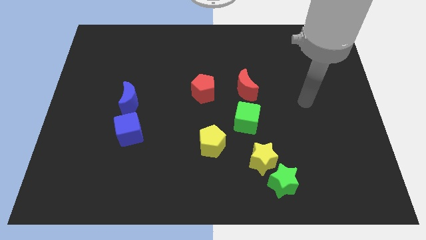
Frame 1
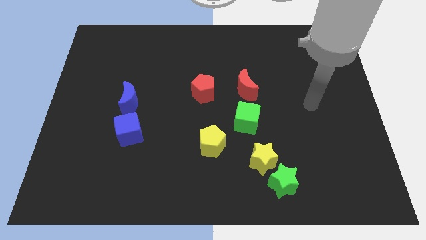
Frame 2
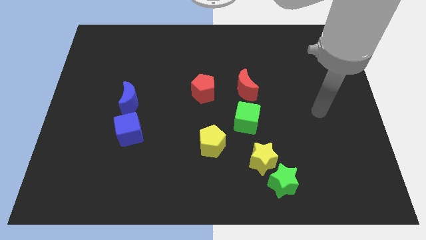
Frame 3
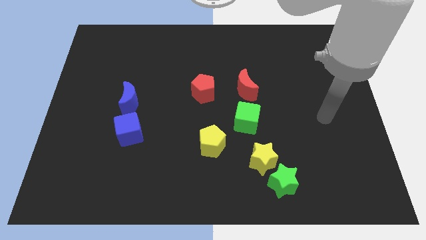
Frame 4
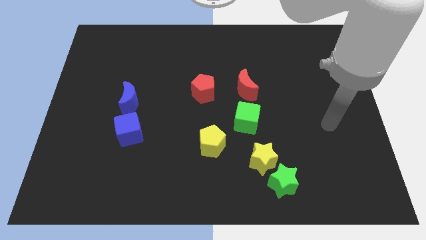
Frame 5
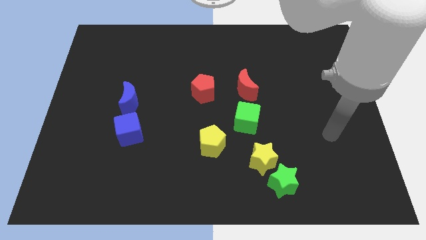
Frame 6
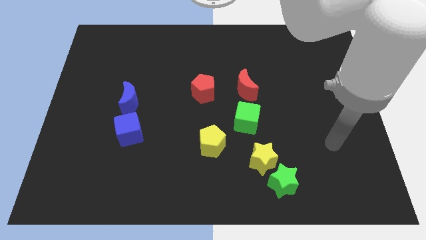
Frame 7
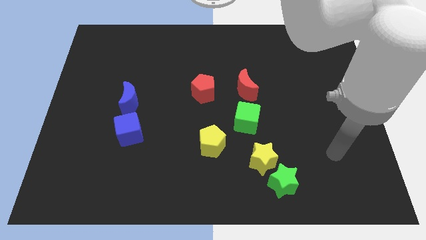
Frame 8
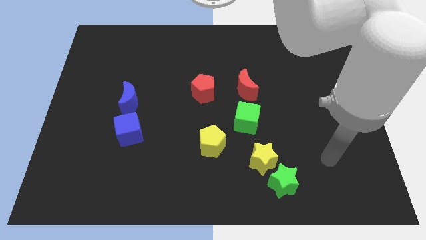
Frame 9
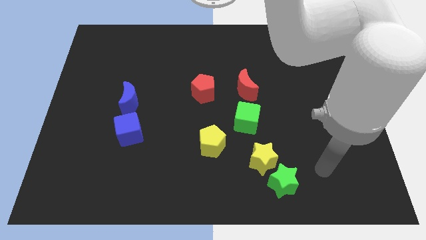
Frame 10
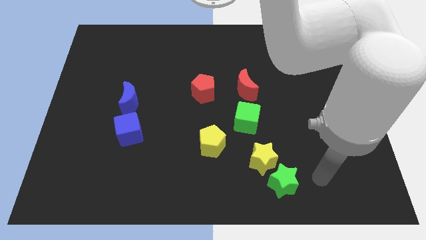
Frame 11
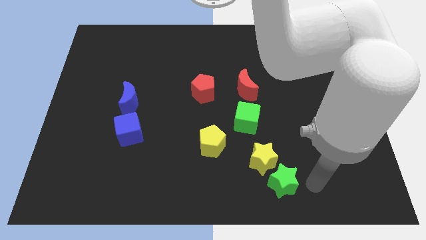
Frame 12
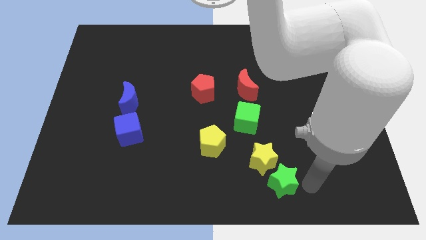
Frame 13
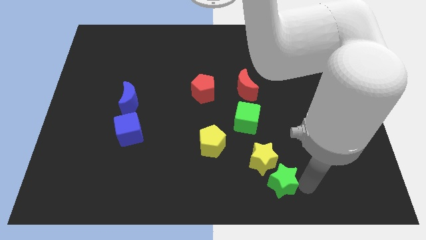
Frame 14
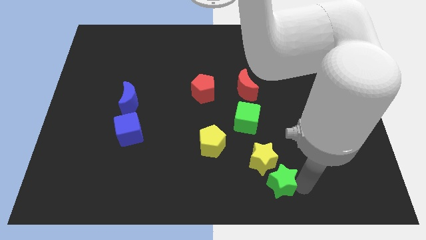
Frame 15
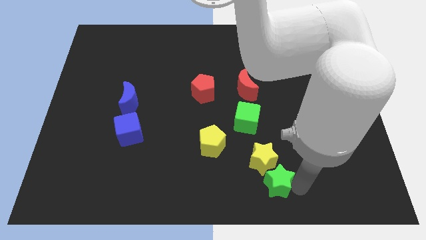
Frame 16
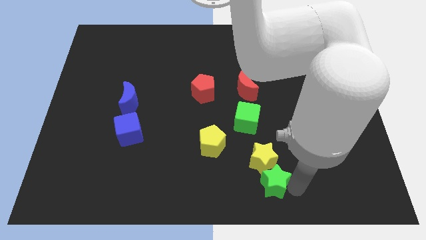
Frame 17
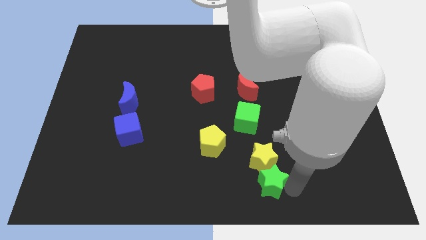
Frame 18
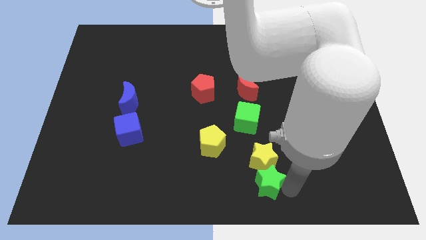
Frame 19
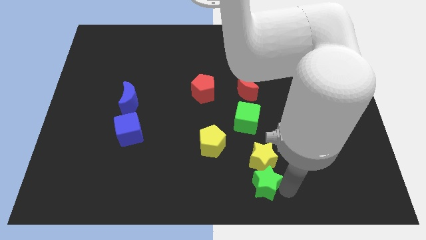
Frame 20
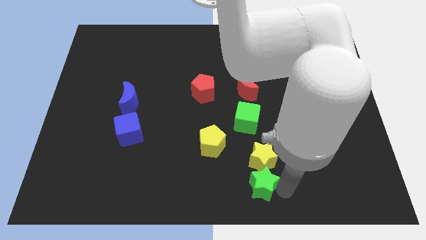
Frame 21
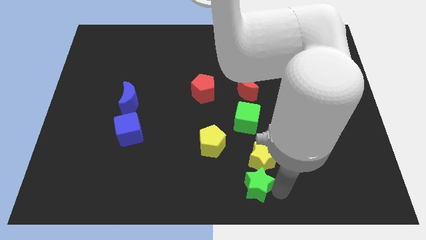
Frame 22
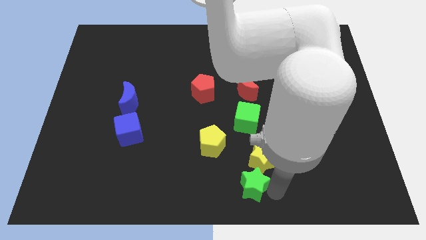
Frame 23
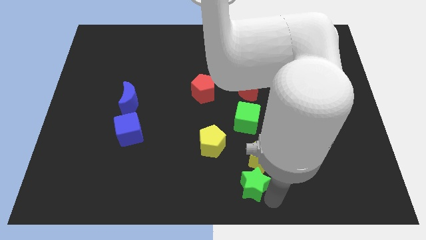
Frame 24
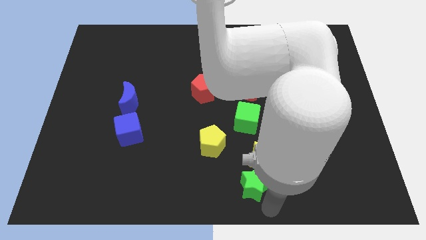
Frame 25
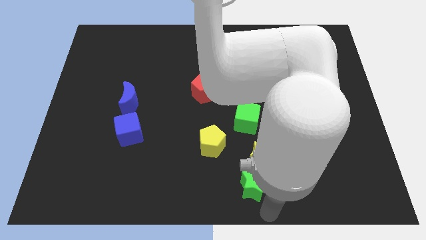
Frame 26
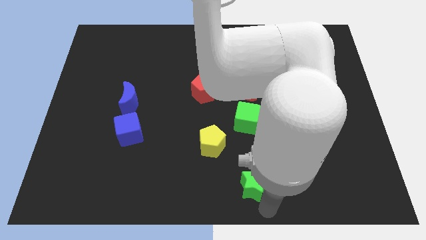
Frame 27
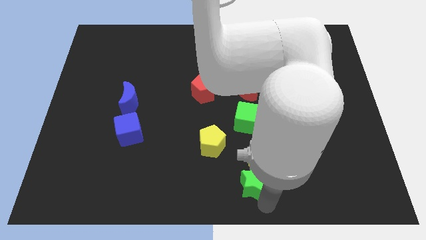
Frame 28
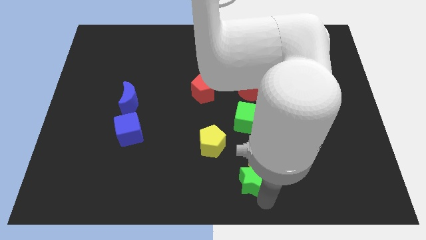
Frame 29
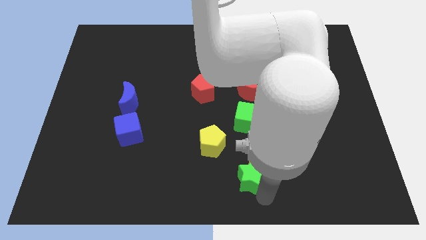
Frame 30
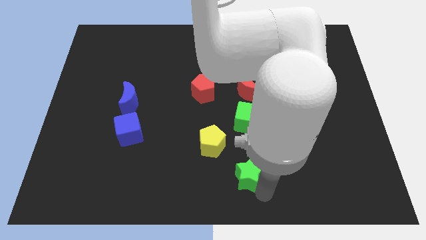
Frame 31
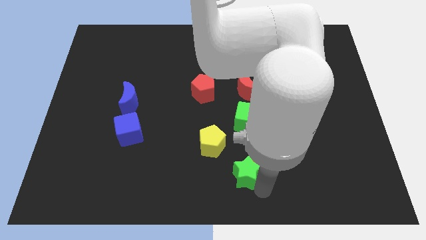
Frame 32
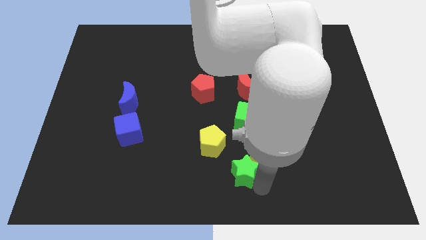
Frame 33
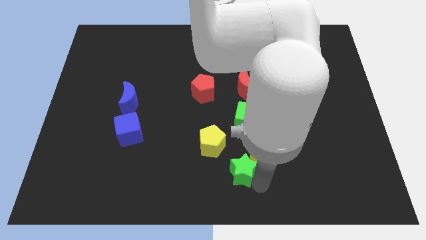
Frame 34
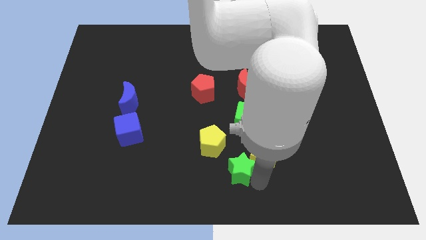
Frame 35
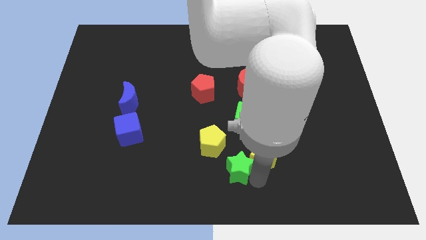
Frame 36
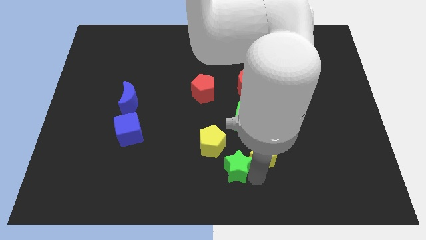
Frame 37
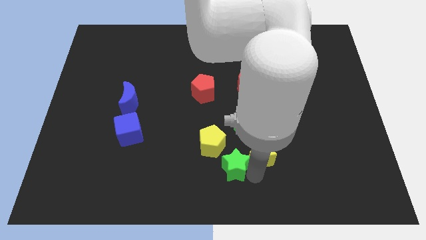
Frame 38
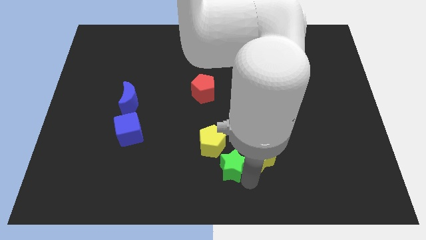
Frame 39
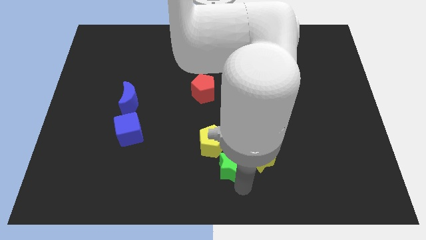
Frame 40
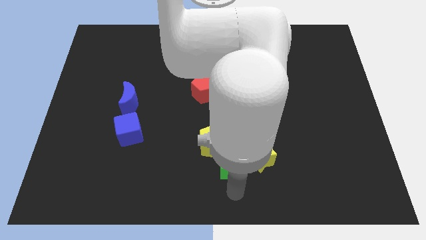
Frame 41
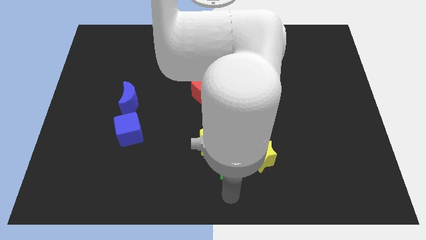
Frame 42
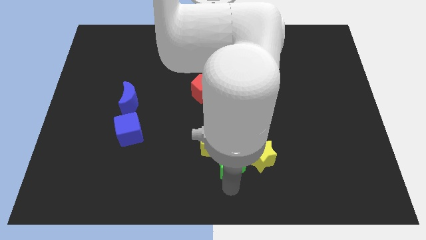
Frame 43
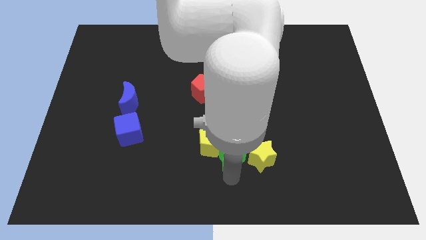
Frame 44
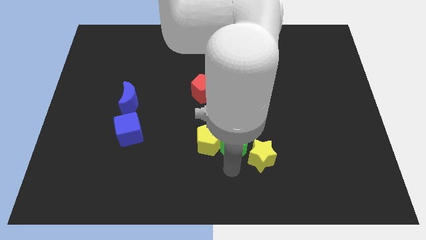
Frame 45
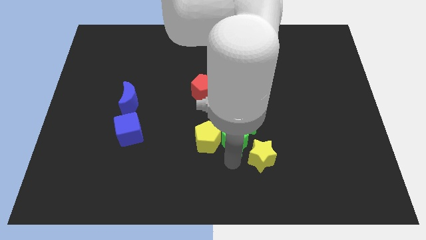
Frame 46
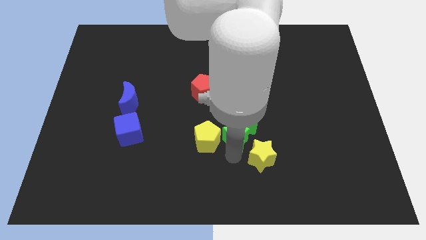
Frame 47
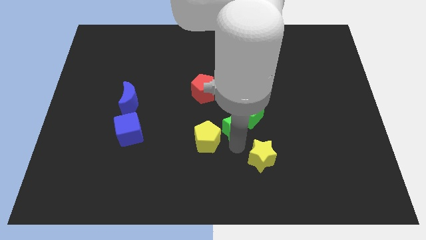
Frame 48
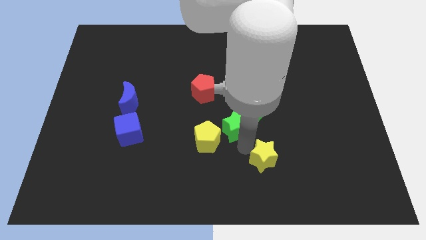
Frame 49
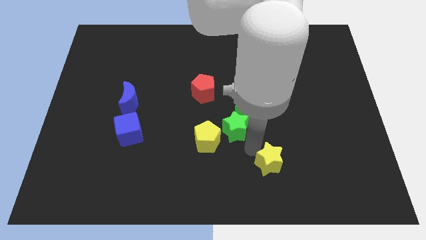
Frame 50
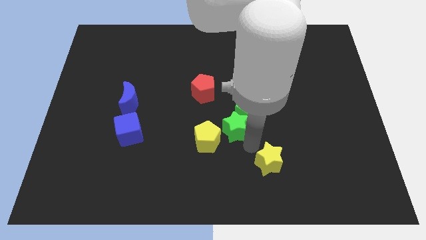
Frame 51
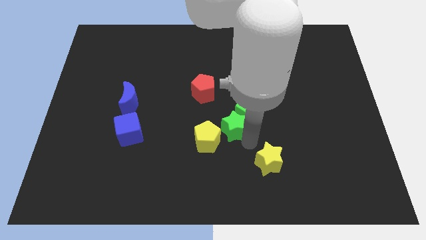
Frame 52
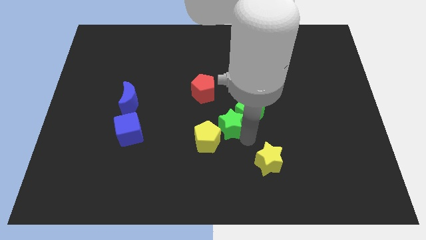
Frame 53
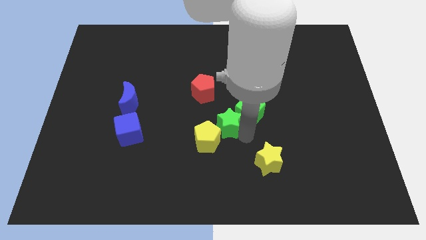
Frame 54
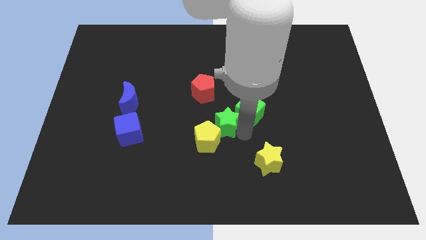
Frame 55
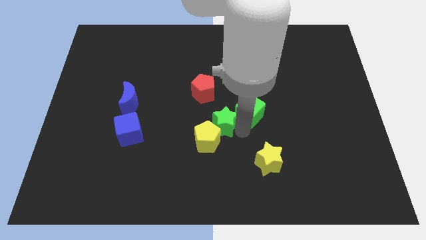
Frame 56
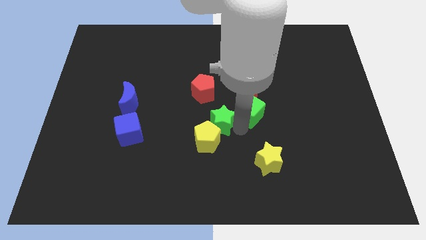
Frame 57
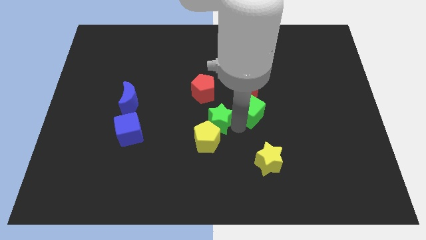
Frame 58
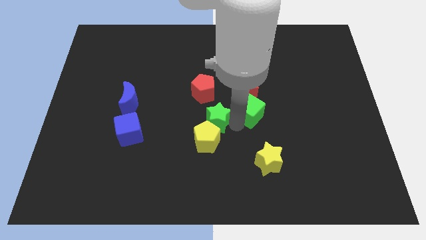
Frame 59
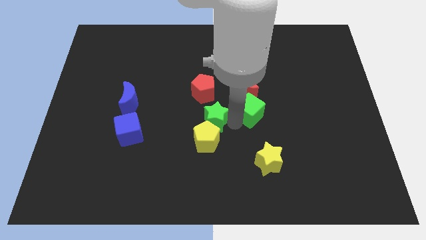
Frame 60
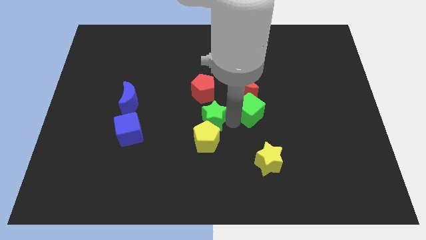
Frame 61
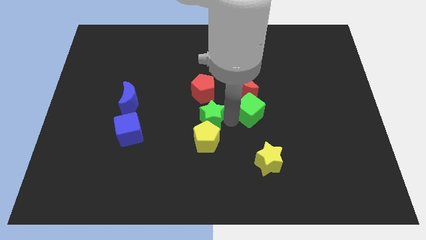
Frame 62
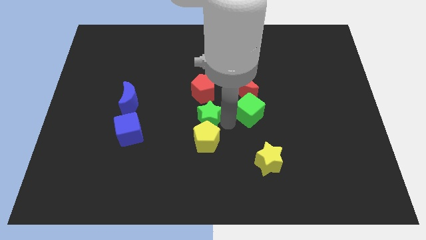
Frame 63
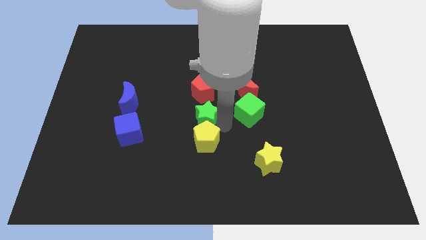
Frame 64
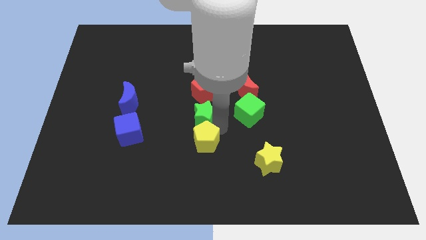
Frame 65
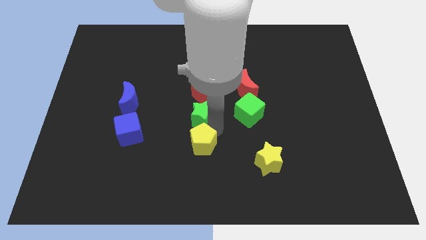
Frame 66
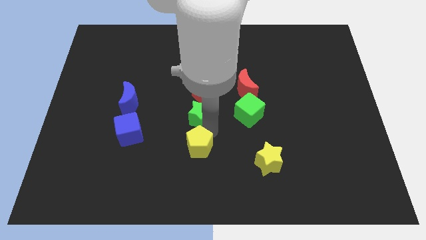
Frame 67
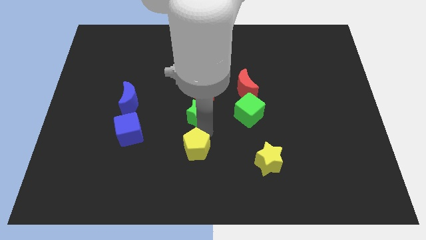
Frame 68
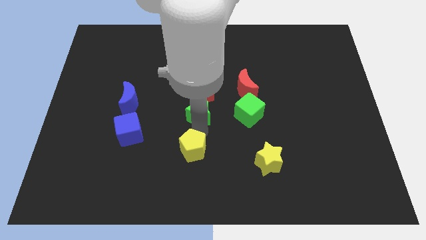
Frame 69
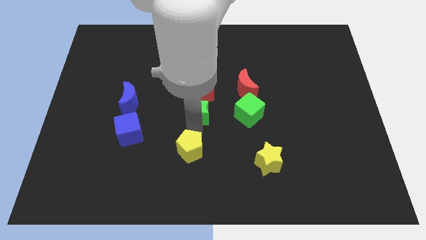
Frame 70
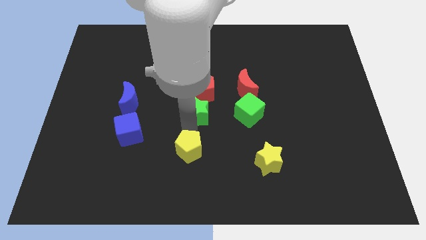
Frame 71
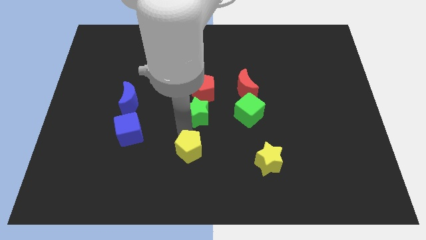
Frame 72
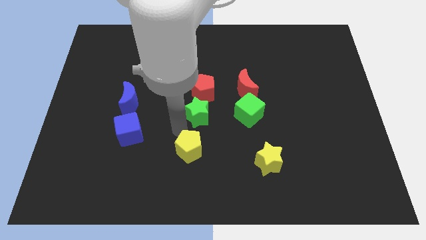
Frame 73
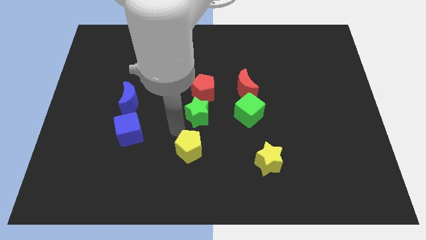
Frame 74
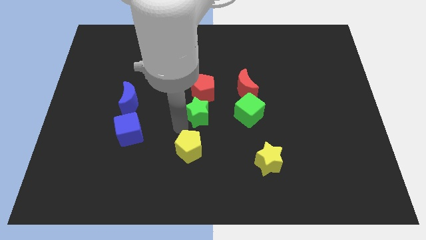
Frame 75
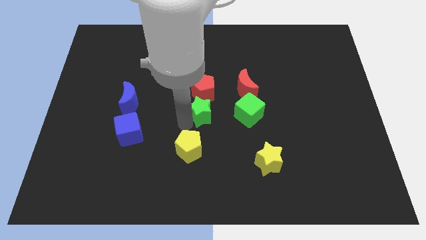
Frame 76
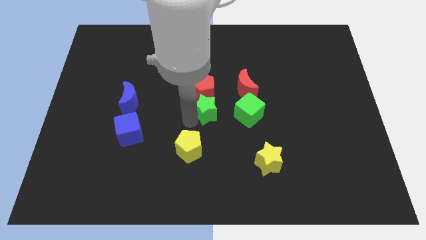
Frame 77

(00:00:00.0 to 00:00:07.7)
slide the green star next to the red pentagon
